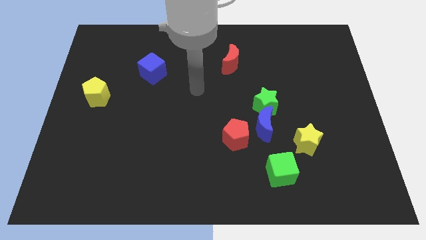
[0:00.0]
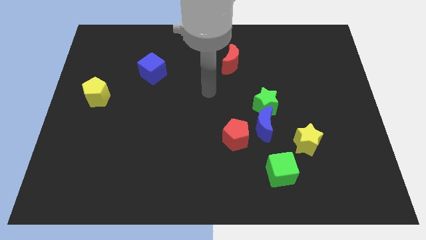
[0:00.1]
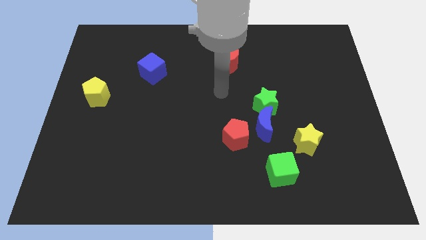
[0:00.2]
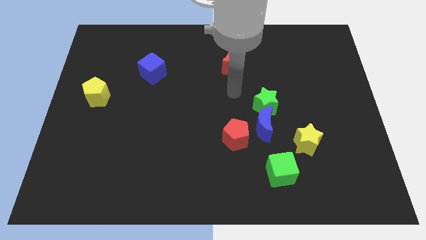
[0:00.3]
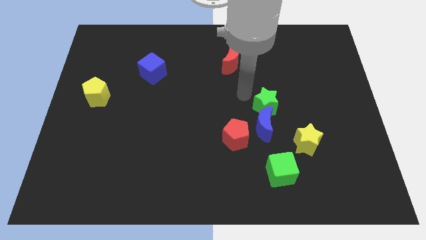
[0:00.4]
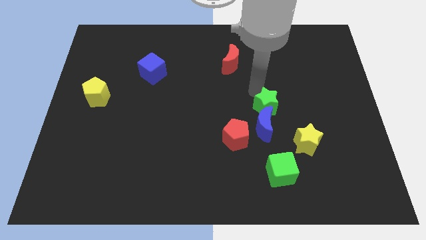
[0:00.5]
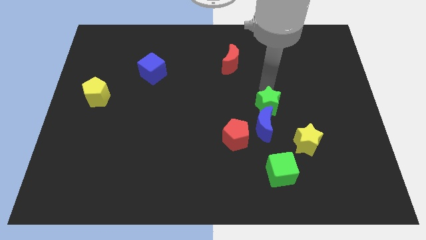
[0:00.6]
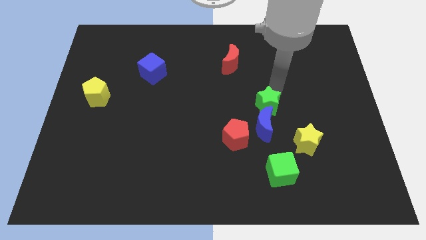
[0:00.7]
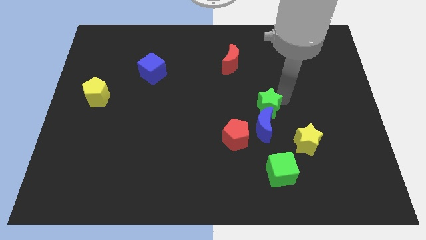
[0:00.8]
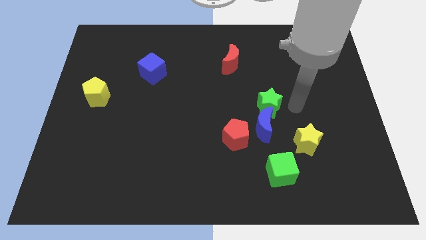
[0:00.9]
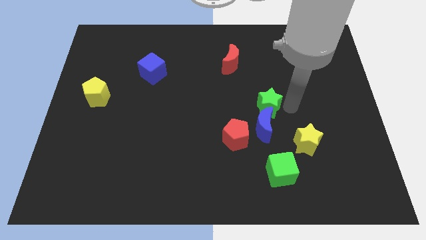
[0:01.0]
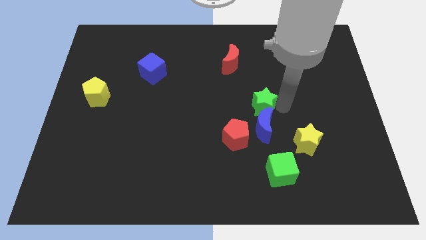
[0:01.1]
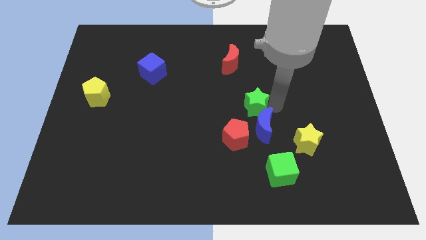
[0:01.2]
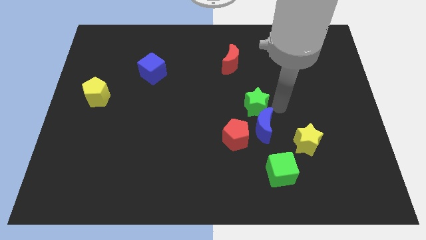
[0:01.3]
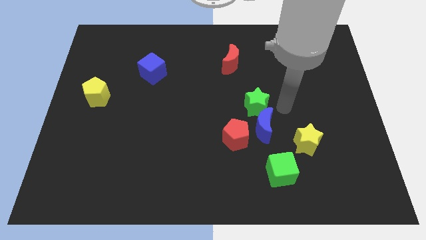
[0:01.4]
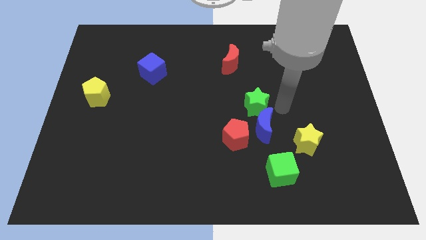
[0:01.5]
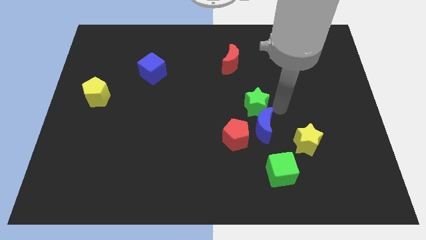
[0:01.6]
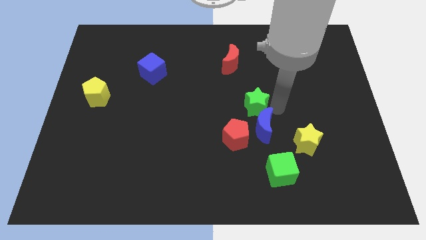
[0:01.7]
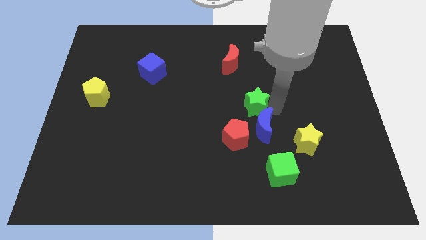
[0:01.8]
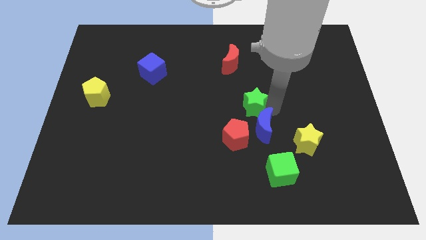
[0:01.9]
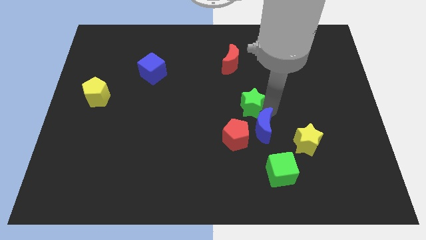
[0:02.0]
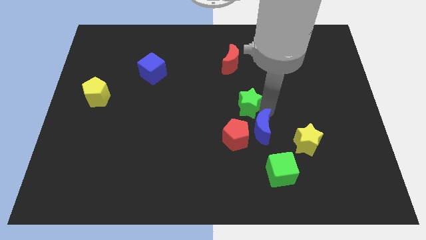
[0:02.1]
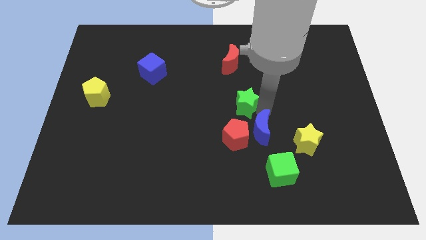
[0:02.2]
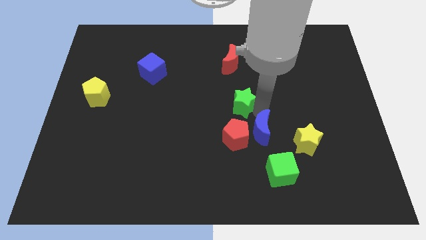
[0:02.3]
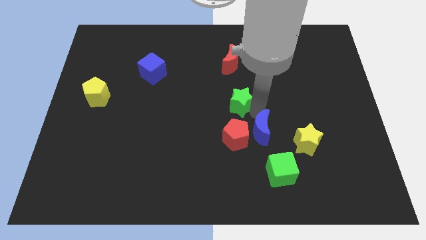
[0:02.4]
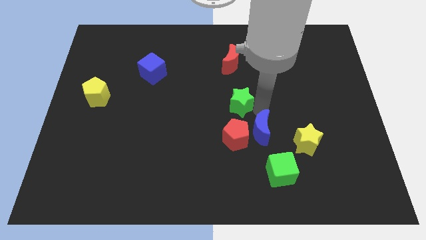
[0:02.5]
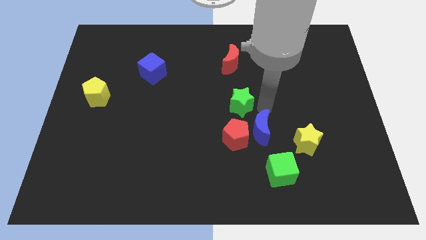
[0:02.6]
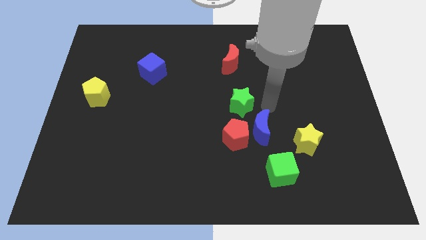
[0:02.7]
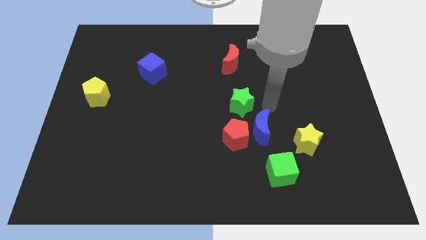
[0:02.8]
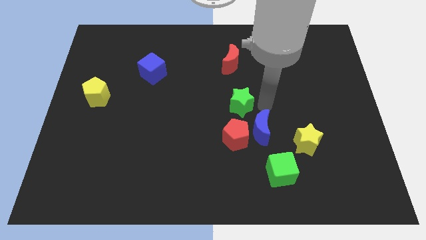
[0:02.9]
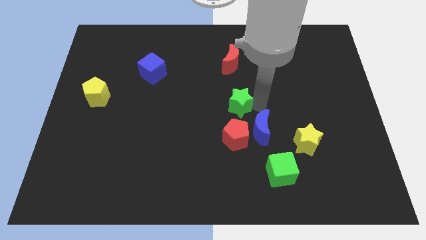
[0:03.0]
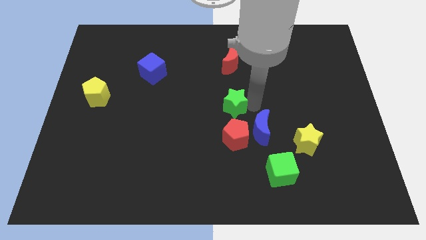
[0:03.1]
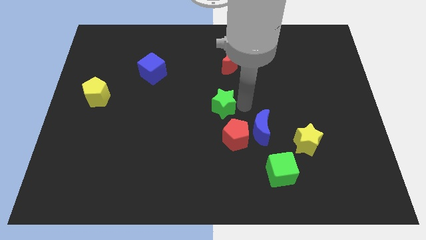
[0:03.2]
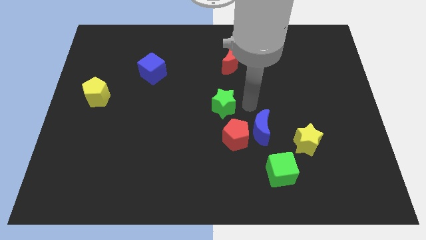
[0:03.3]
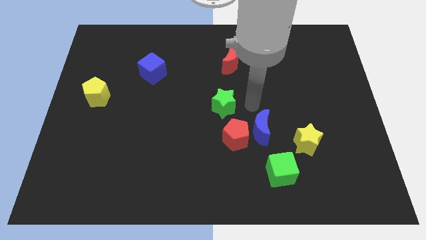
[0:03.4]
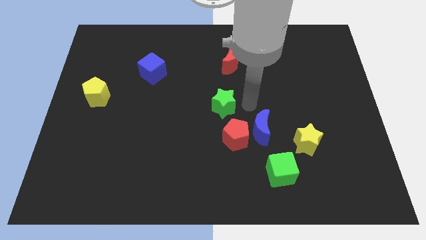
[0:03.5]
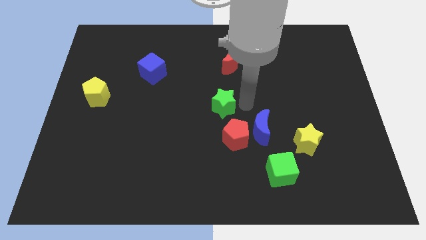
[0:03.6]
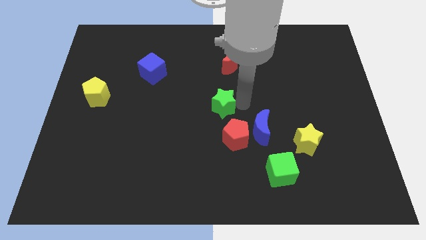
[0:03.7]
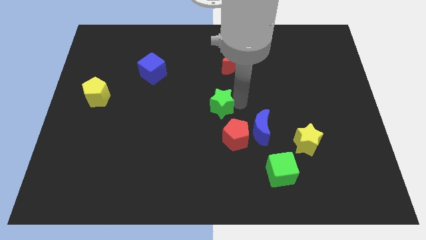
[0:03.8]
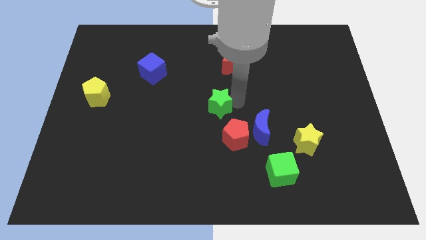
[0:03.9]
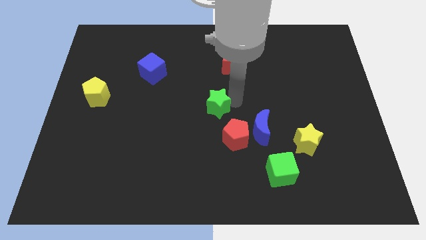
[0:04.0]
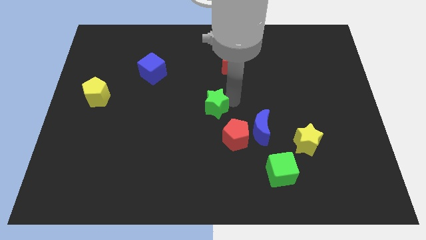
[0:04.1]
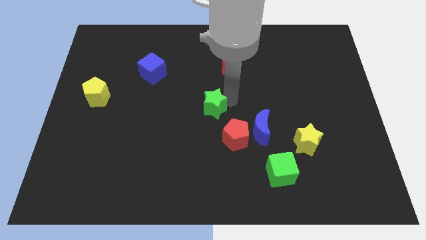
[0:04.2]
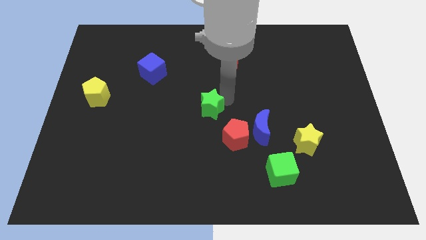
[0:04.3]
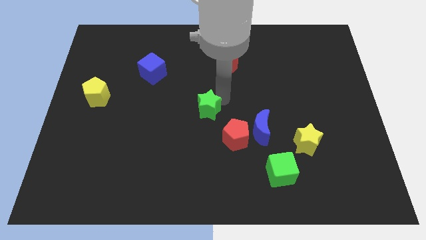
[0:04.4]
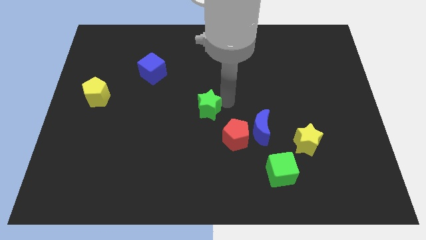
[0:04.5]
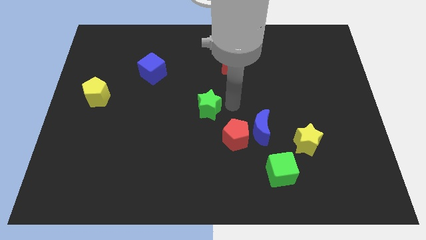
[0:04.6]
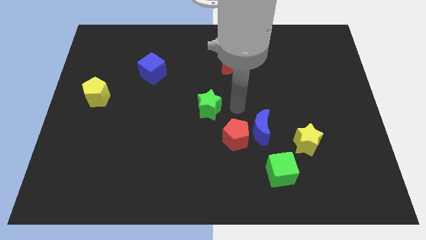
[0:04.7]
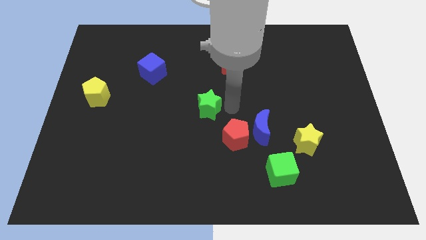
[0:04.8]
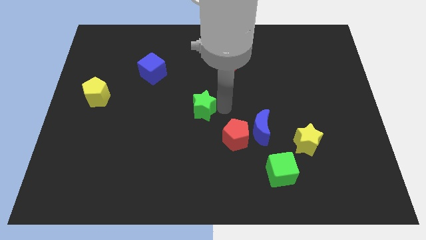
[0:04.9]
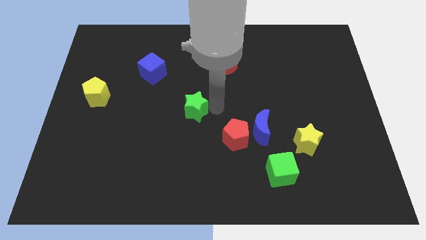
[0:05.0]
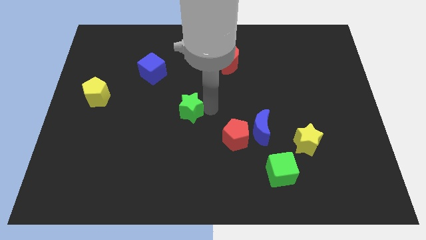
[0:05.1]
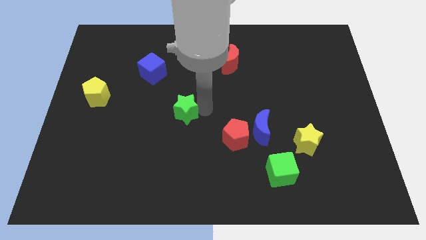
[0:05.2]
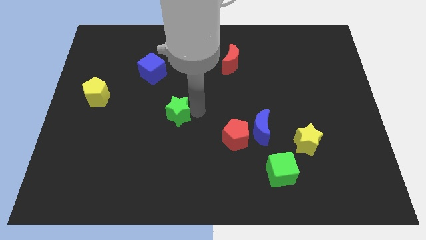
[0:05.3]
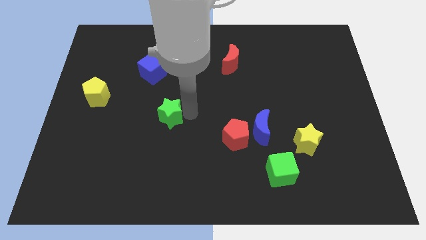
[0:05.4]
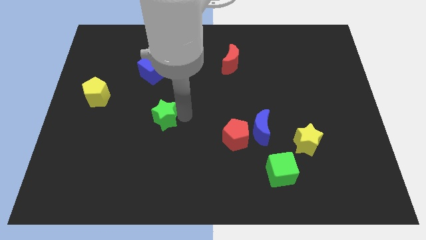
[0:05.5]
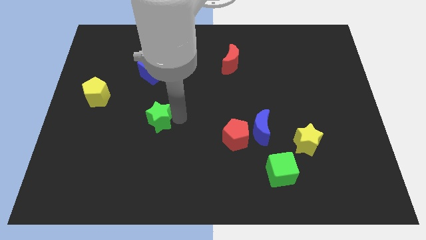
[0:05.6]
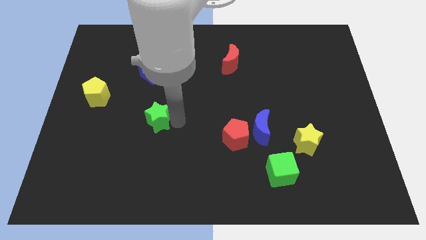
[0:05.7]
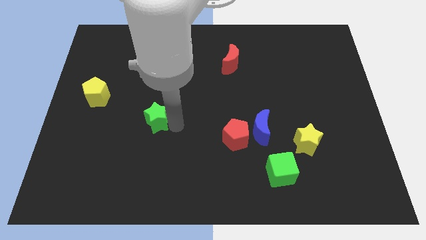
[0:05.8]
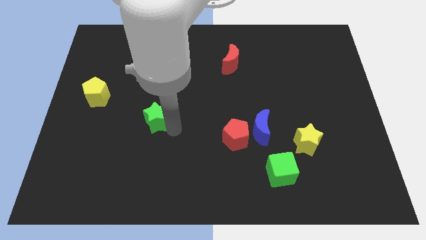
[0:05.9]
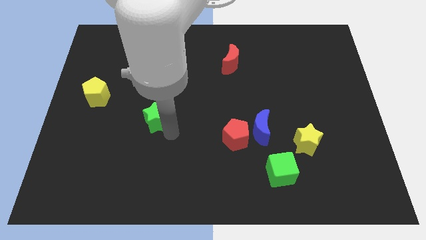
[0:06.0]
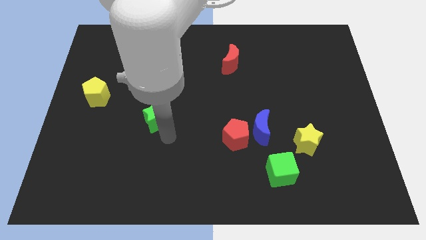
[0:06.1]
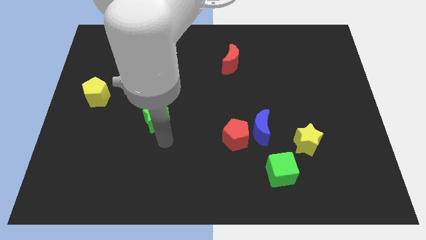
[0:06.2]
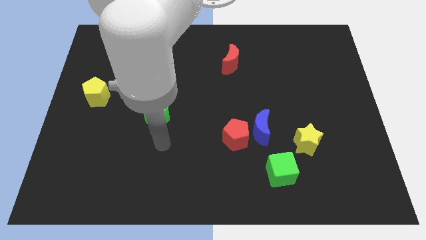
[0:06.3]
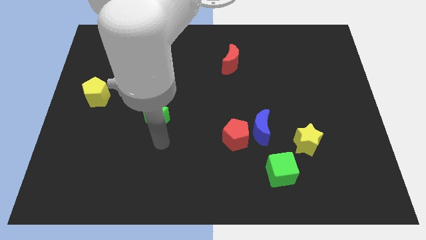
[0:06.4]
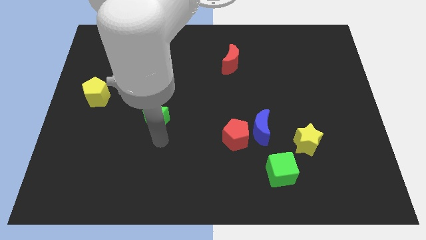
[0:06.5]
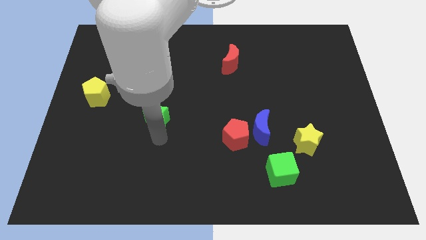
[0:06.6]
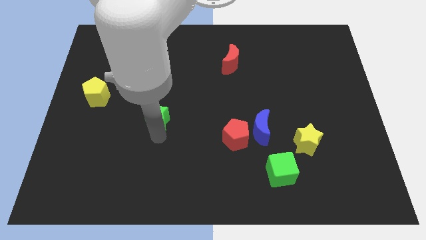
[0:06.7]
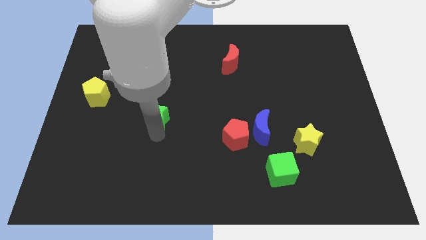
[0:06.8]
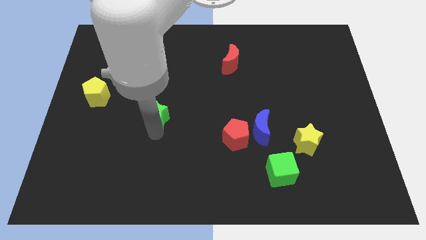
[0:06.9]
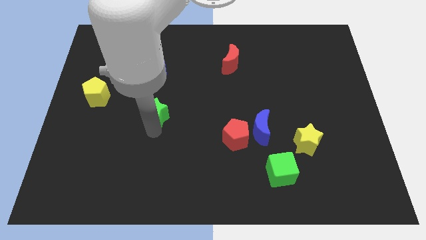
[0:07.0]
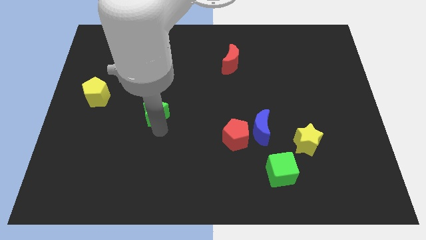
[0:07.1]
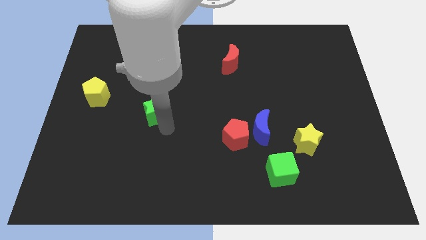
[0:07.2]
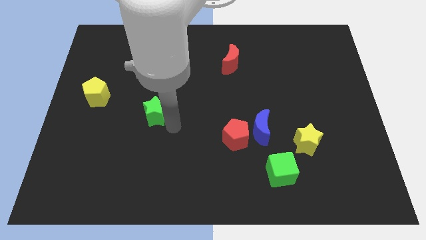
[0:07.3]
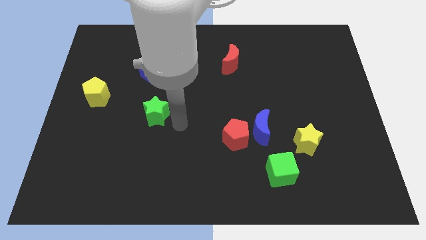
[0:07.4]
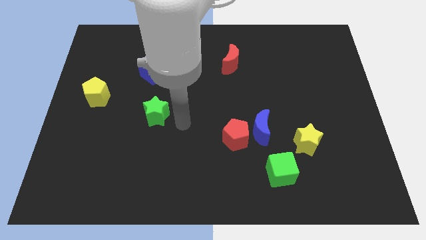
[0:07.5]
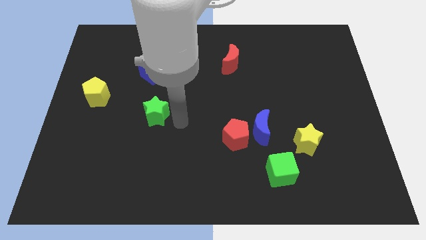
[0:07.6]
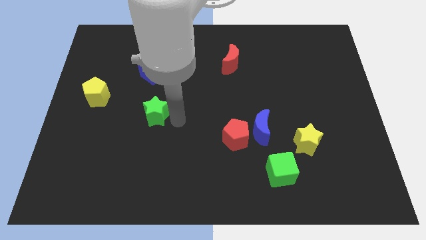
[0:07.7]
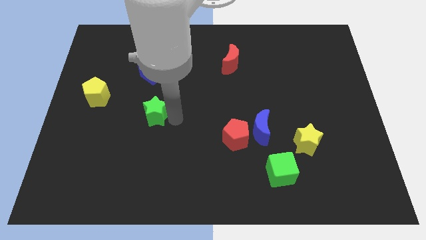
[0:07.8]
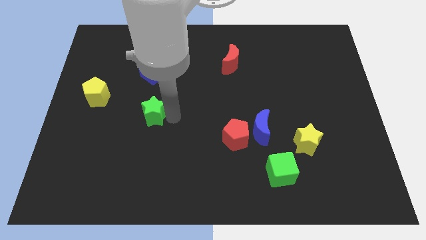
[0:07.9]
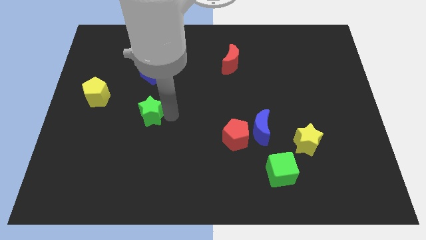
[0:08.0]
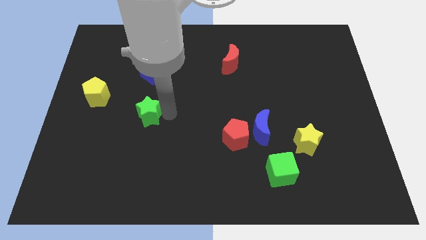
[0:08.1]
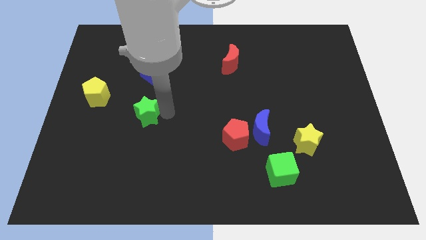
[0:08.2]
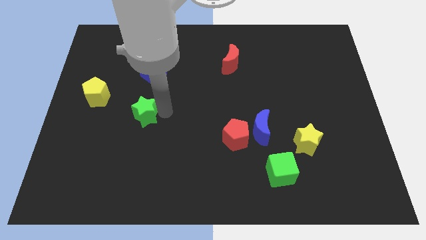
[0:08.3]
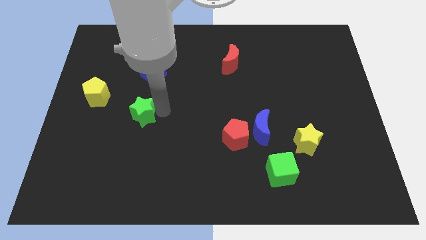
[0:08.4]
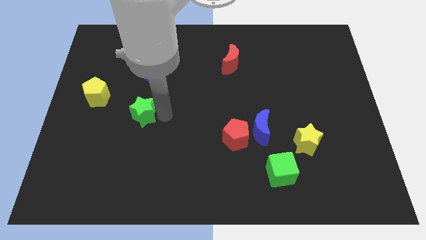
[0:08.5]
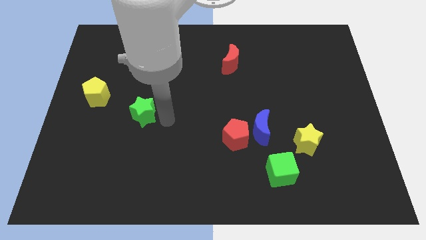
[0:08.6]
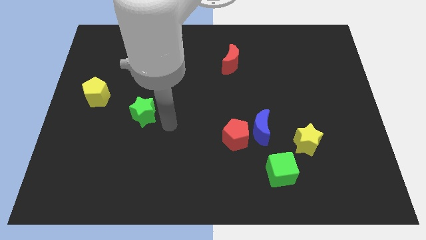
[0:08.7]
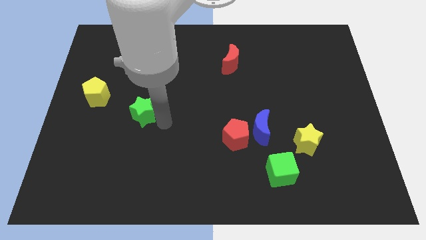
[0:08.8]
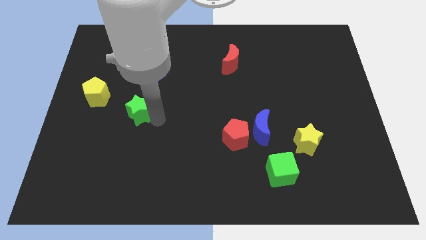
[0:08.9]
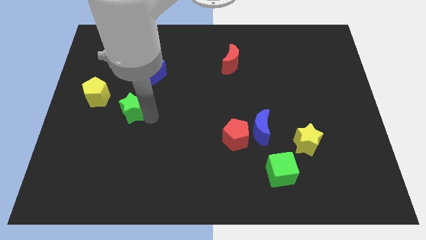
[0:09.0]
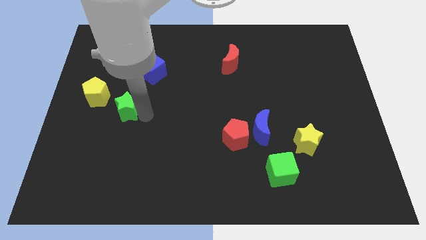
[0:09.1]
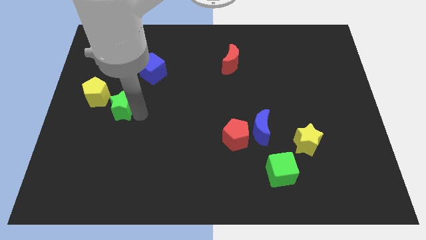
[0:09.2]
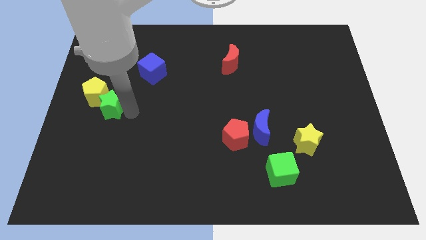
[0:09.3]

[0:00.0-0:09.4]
push the green star close to the yellow pentagon
